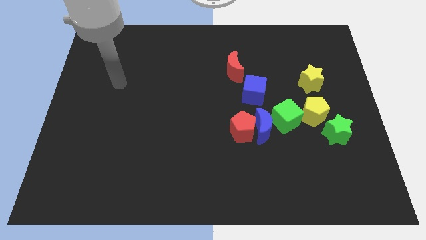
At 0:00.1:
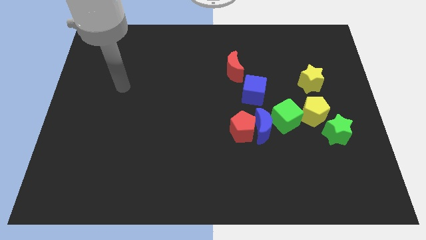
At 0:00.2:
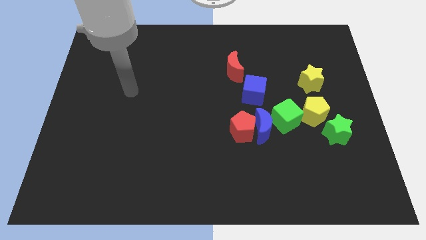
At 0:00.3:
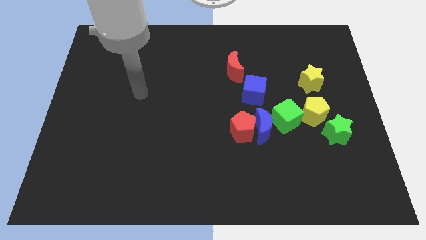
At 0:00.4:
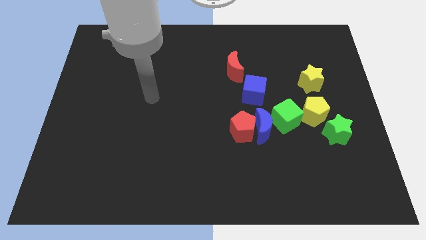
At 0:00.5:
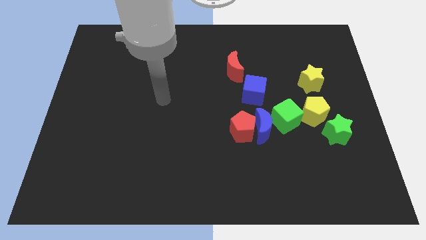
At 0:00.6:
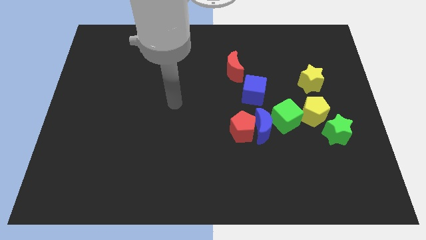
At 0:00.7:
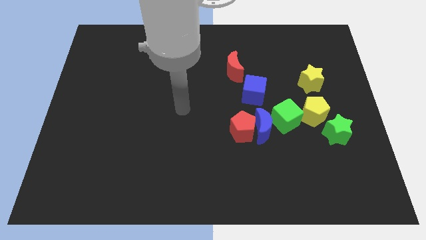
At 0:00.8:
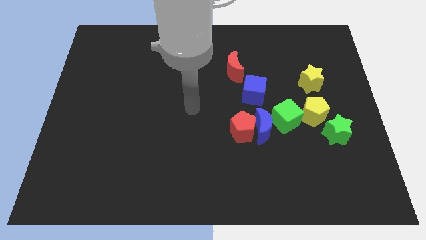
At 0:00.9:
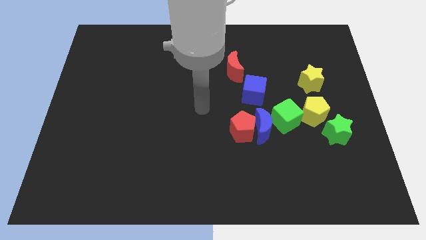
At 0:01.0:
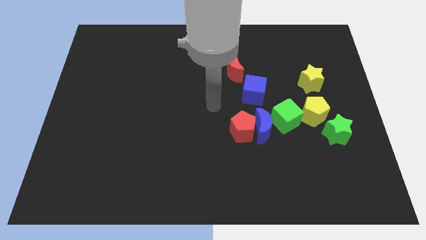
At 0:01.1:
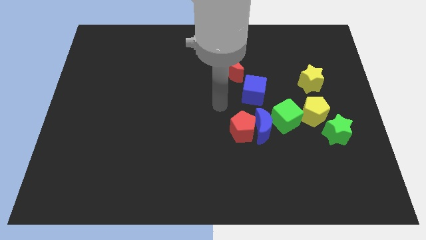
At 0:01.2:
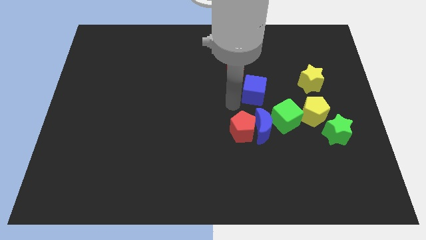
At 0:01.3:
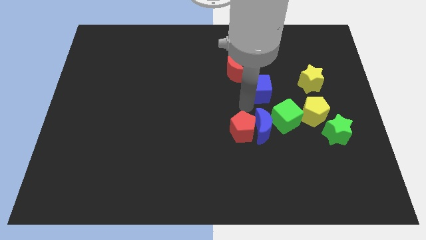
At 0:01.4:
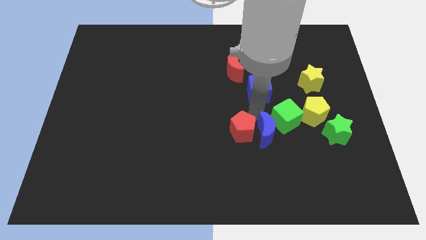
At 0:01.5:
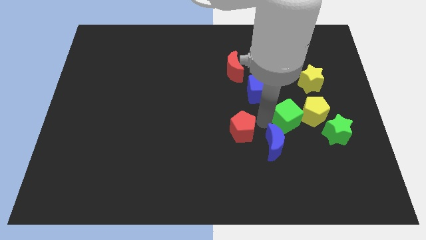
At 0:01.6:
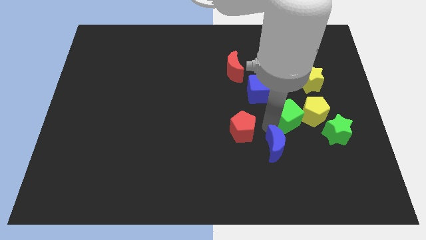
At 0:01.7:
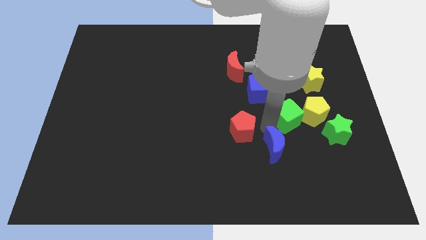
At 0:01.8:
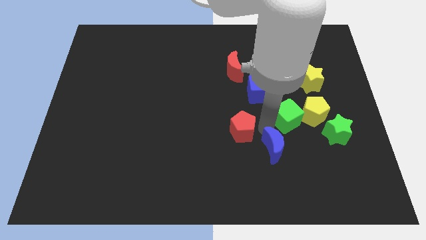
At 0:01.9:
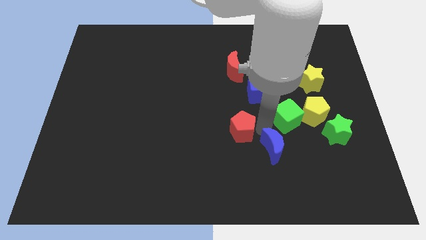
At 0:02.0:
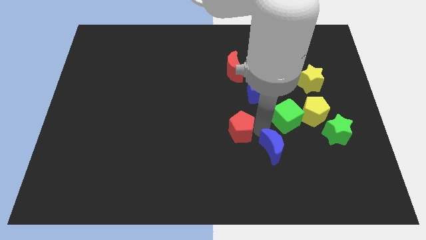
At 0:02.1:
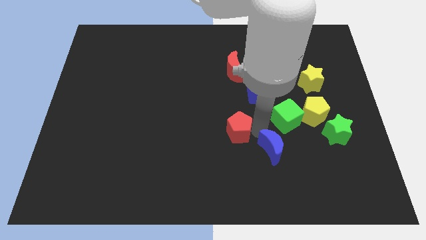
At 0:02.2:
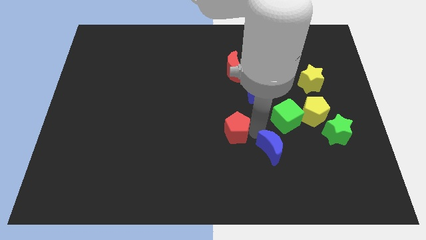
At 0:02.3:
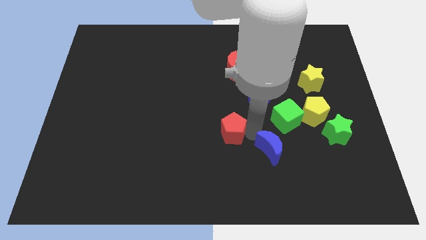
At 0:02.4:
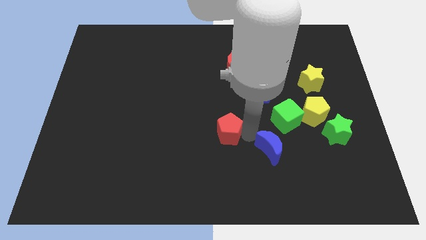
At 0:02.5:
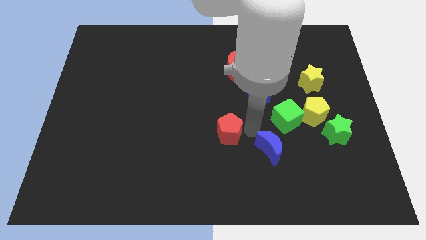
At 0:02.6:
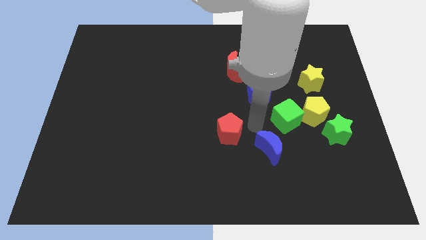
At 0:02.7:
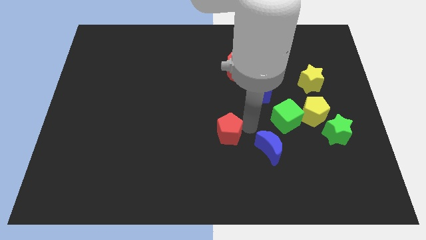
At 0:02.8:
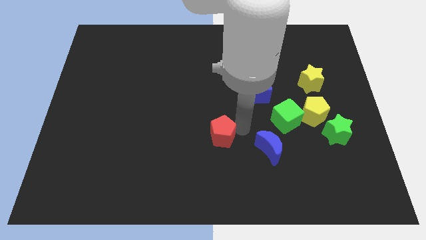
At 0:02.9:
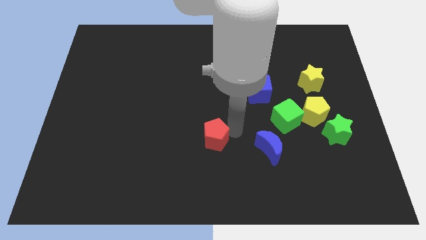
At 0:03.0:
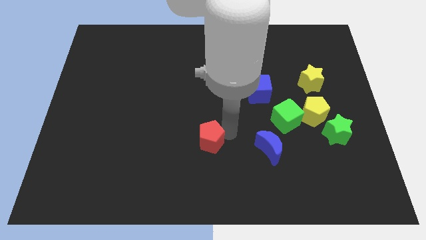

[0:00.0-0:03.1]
slightly slide the red pentagon left

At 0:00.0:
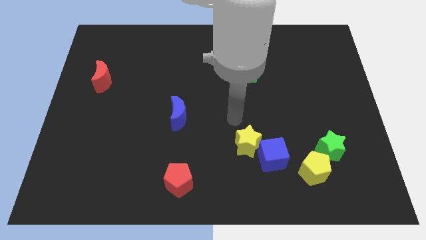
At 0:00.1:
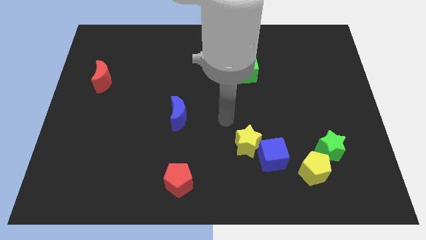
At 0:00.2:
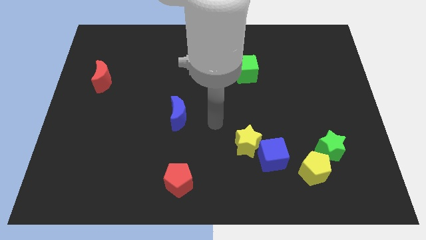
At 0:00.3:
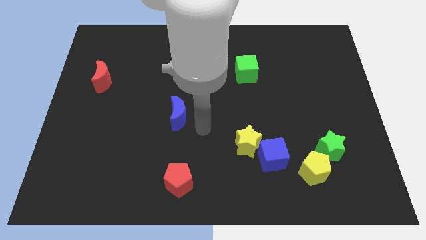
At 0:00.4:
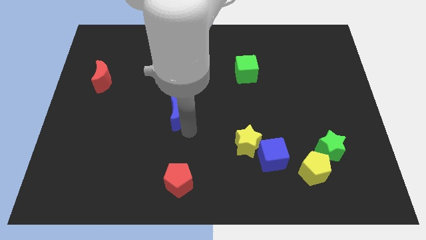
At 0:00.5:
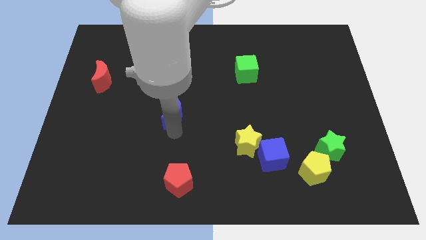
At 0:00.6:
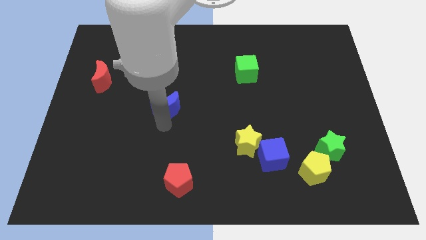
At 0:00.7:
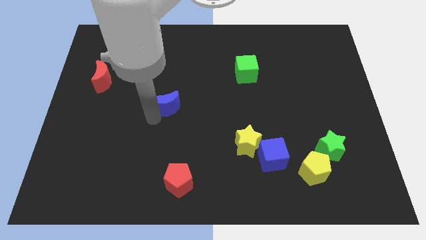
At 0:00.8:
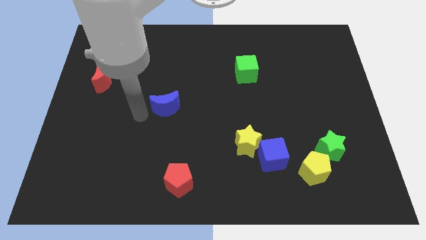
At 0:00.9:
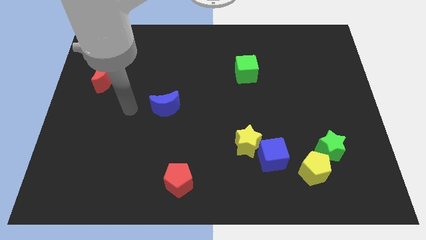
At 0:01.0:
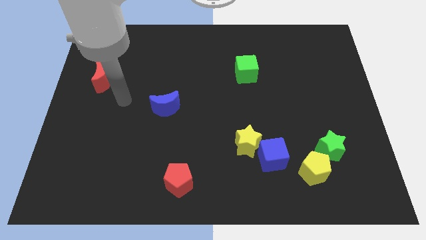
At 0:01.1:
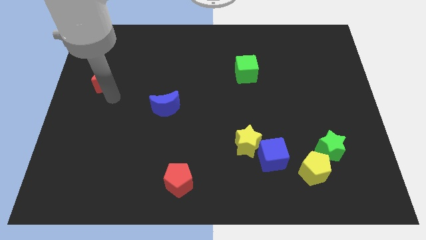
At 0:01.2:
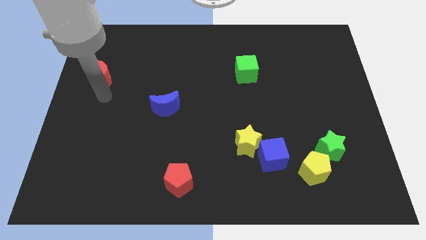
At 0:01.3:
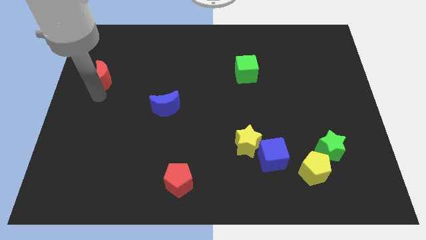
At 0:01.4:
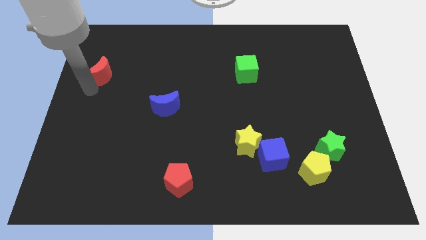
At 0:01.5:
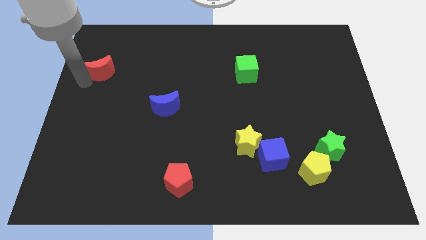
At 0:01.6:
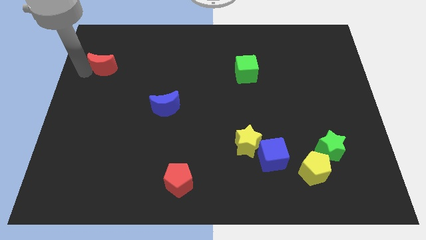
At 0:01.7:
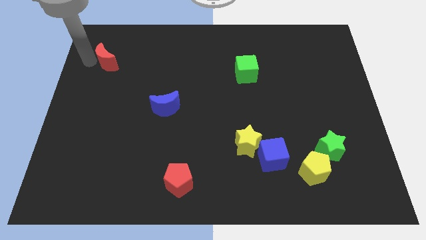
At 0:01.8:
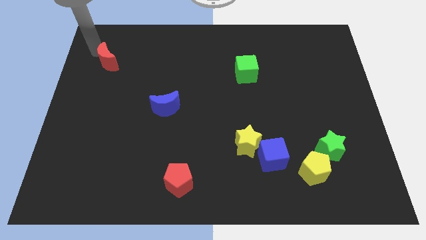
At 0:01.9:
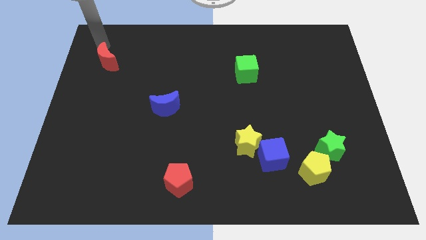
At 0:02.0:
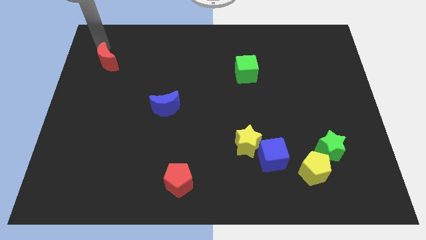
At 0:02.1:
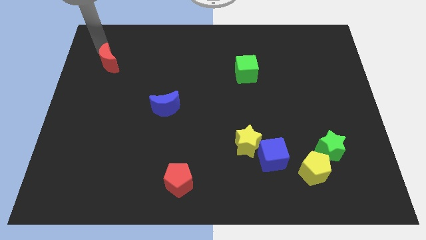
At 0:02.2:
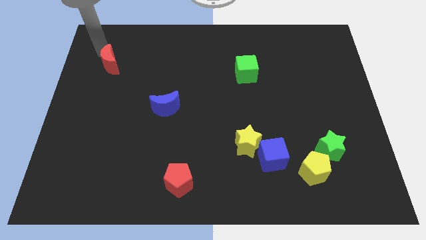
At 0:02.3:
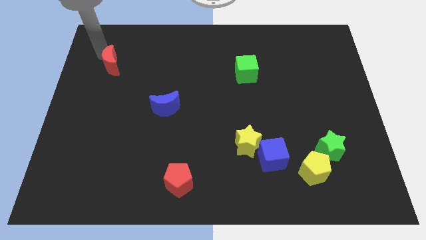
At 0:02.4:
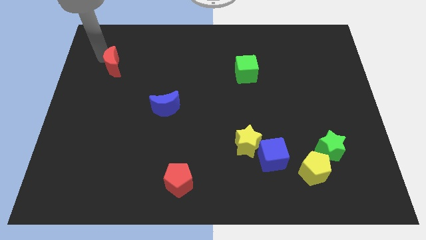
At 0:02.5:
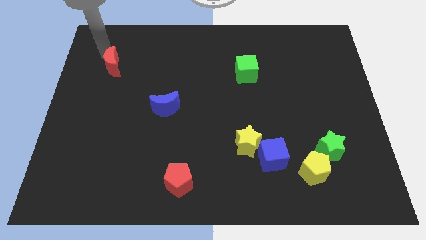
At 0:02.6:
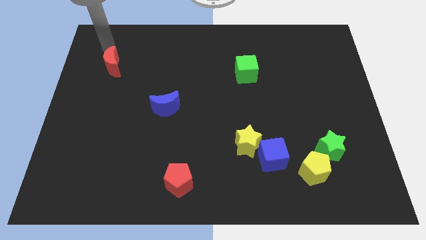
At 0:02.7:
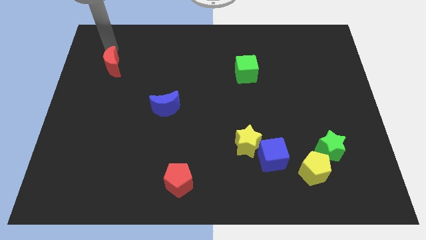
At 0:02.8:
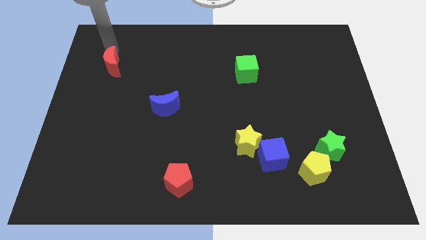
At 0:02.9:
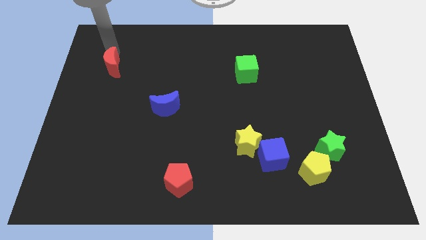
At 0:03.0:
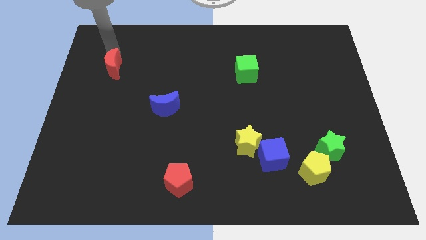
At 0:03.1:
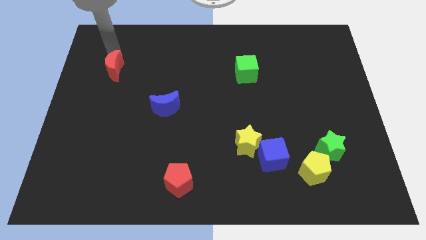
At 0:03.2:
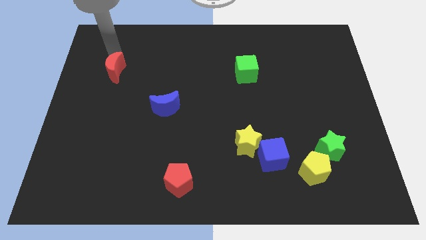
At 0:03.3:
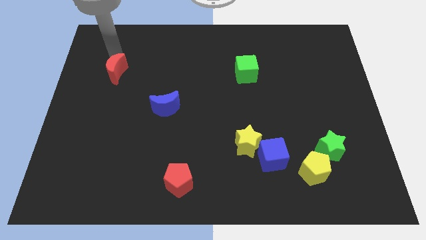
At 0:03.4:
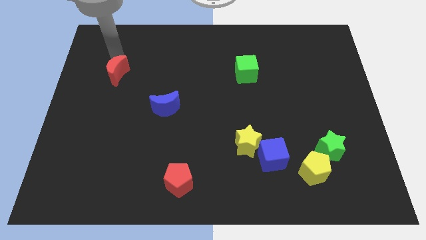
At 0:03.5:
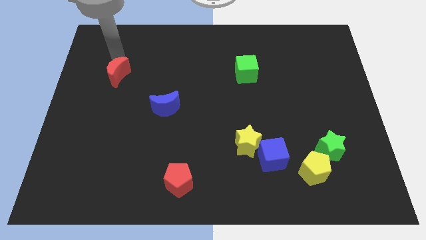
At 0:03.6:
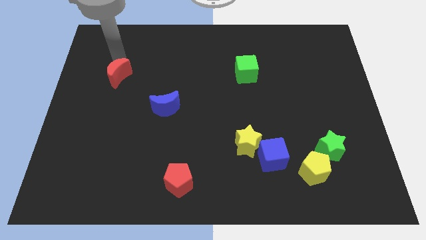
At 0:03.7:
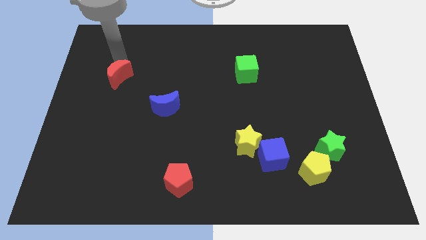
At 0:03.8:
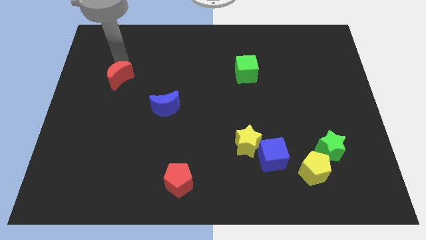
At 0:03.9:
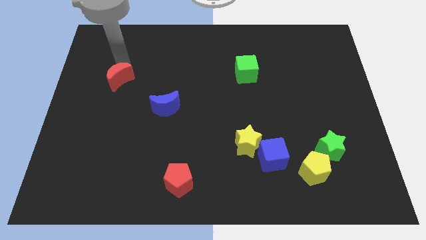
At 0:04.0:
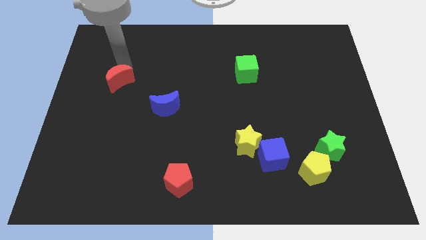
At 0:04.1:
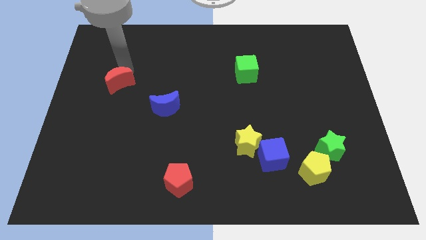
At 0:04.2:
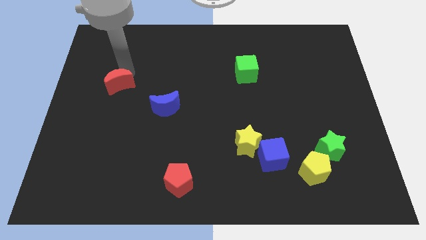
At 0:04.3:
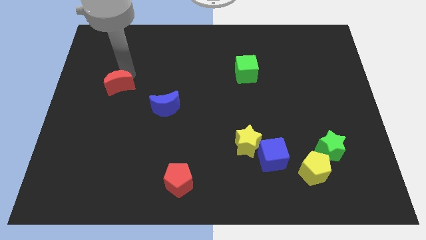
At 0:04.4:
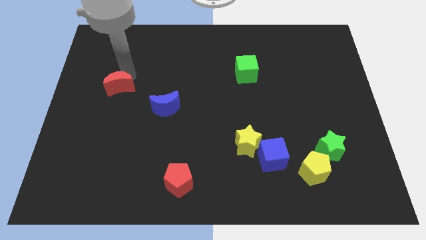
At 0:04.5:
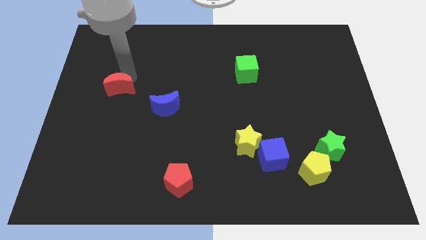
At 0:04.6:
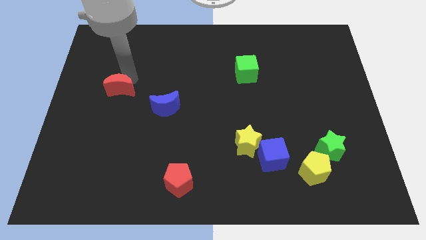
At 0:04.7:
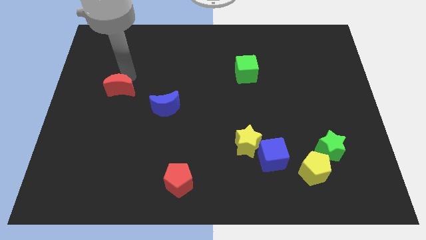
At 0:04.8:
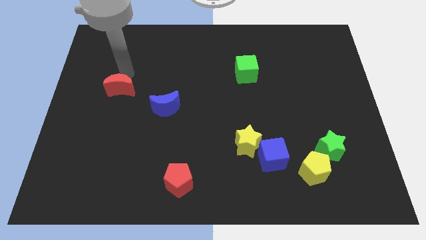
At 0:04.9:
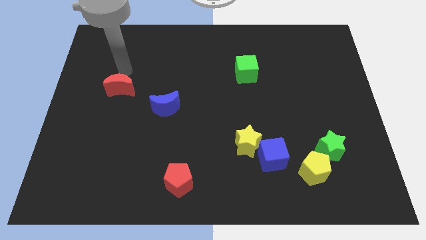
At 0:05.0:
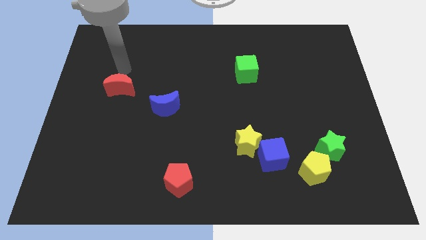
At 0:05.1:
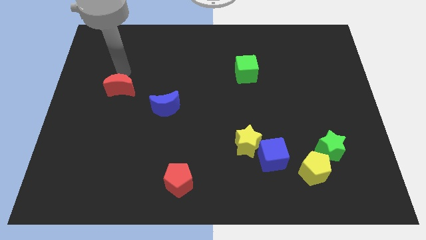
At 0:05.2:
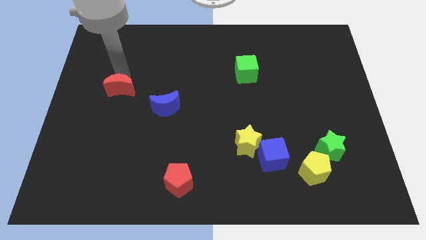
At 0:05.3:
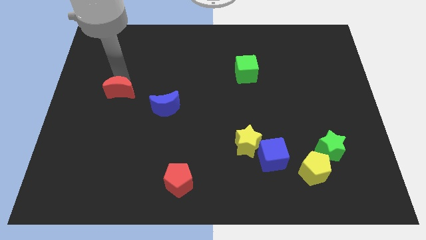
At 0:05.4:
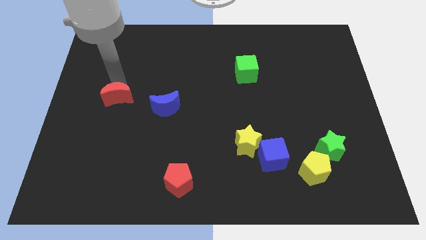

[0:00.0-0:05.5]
slide the red moon a little diagonally downwards and right
